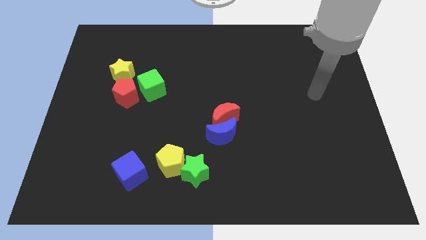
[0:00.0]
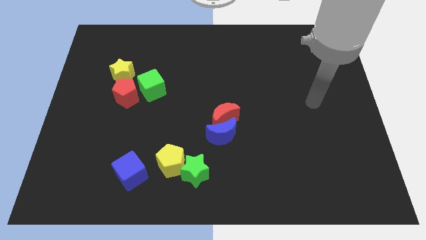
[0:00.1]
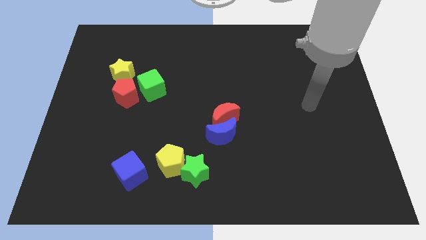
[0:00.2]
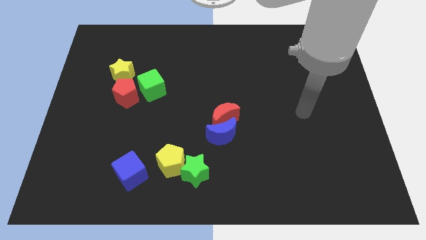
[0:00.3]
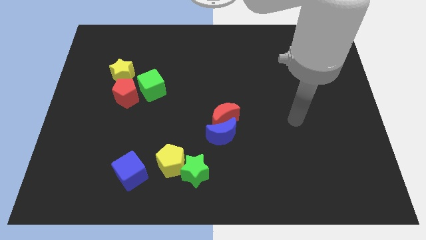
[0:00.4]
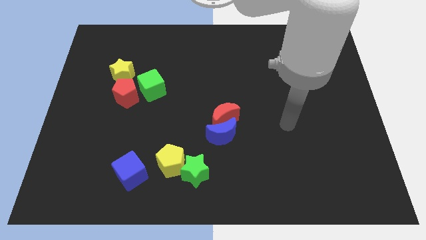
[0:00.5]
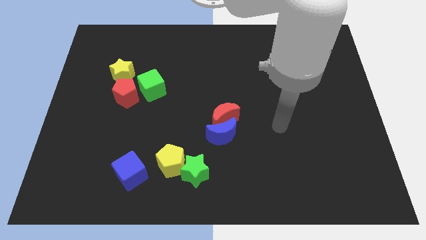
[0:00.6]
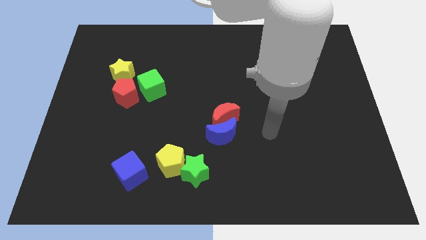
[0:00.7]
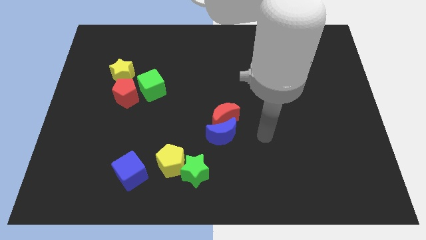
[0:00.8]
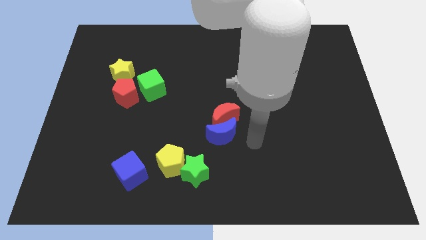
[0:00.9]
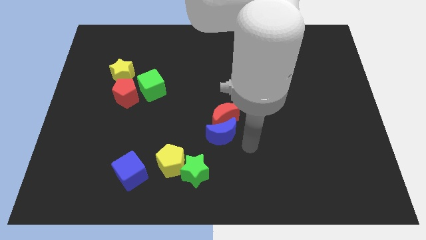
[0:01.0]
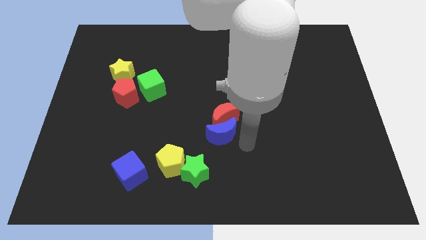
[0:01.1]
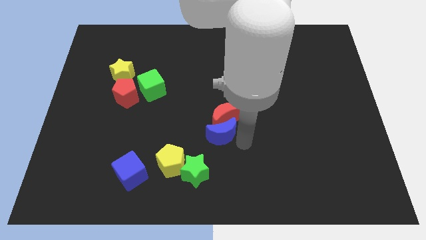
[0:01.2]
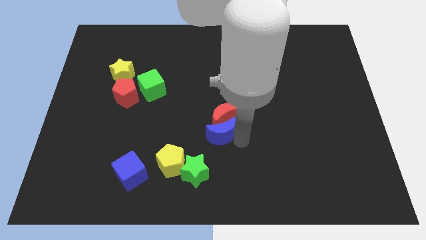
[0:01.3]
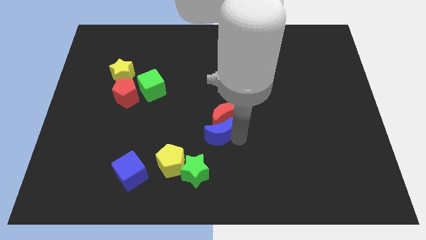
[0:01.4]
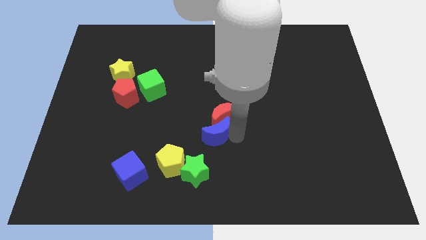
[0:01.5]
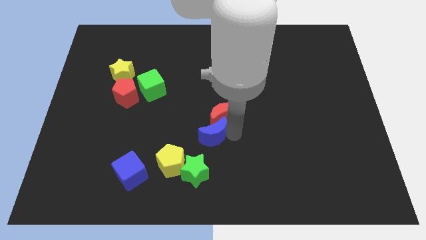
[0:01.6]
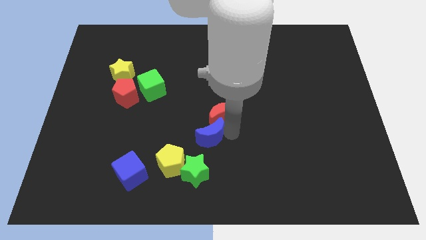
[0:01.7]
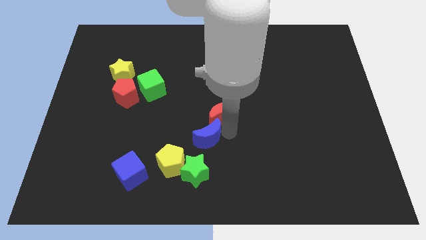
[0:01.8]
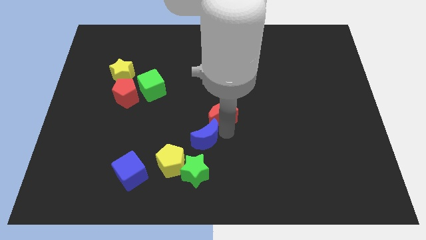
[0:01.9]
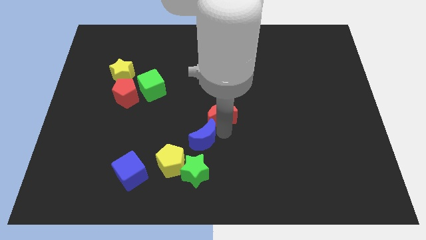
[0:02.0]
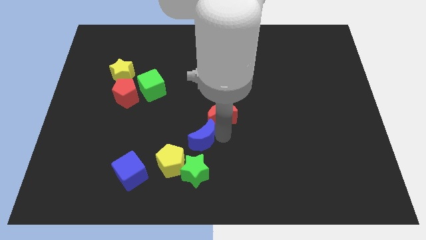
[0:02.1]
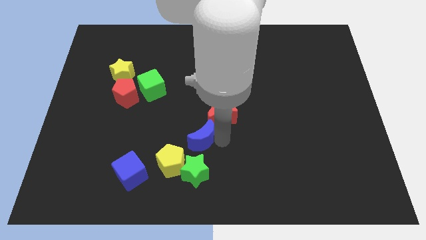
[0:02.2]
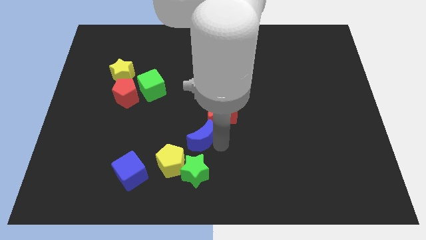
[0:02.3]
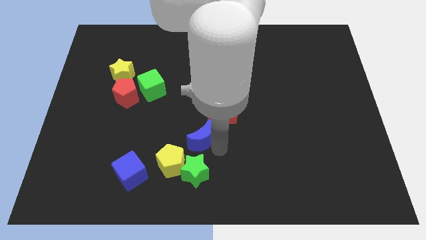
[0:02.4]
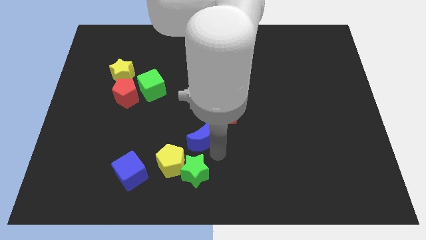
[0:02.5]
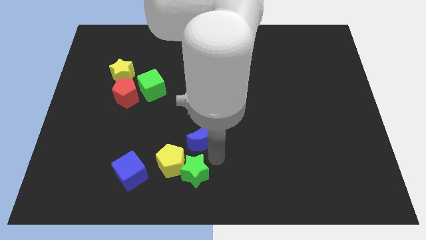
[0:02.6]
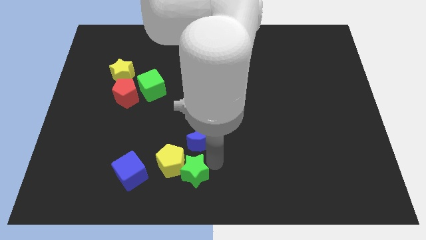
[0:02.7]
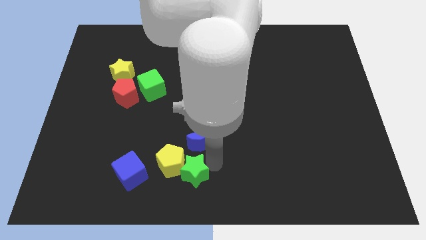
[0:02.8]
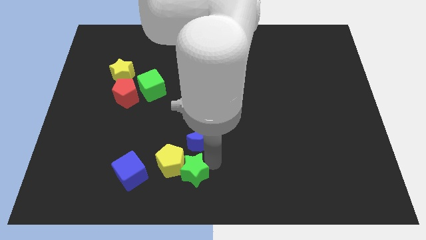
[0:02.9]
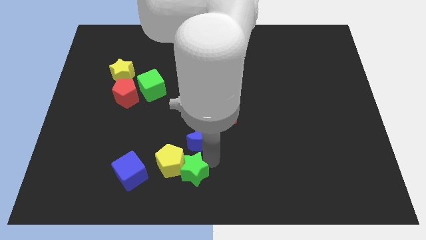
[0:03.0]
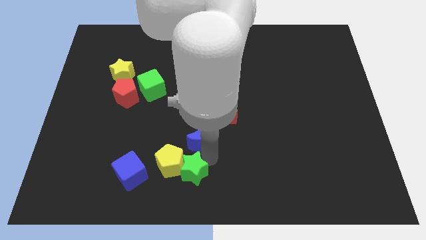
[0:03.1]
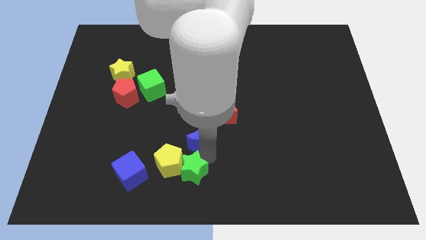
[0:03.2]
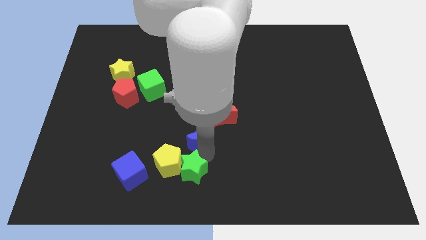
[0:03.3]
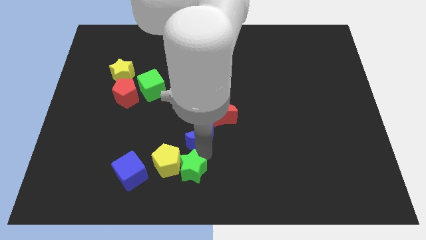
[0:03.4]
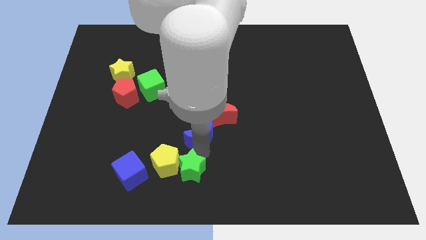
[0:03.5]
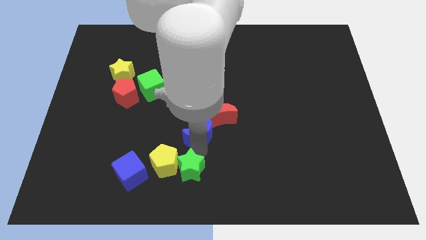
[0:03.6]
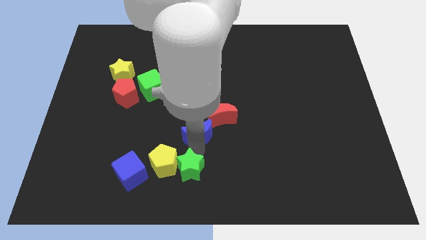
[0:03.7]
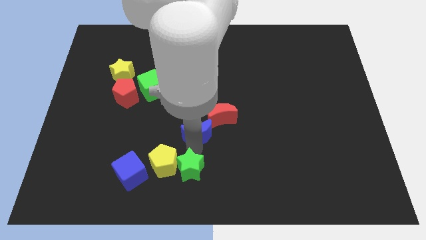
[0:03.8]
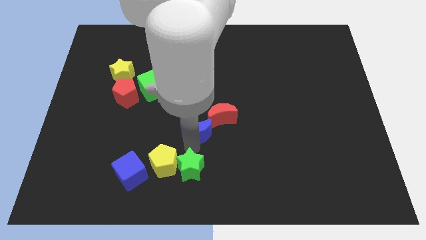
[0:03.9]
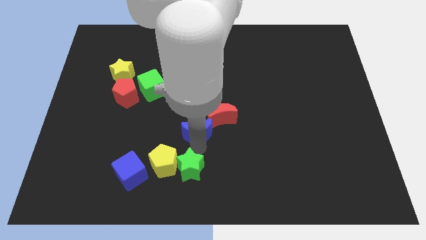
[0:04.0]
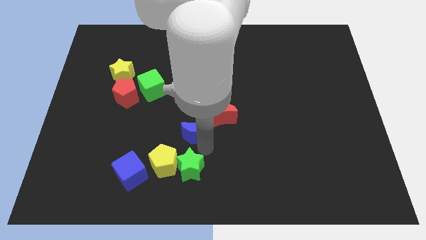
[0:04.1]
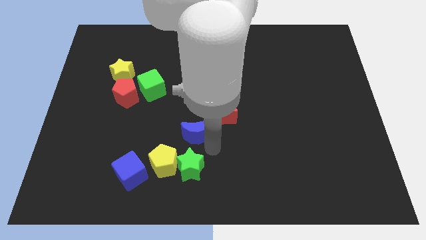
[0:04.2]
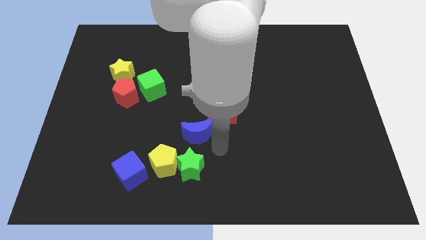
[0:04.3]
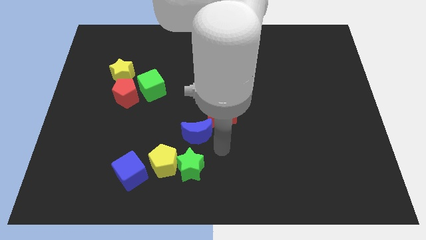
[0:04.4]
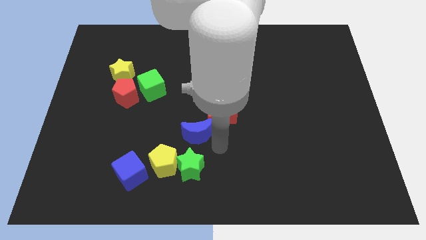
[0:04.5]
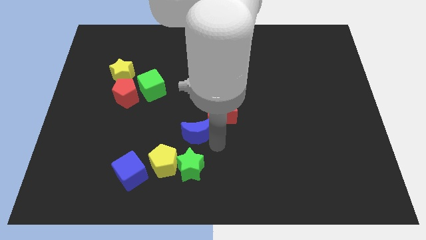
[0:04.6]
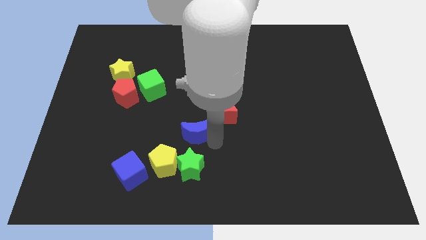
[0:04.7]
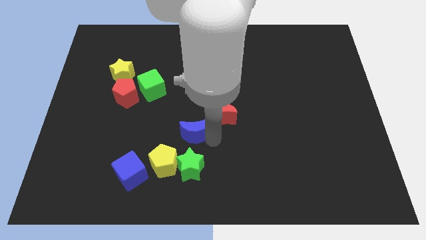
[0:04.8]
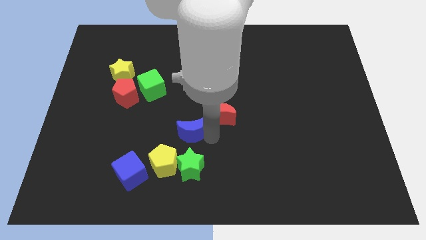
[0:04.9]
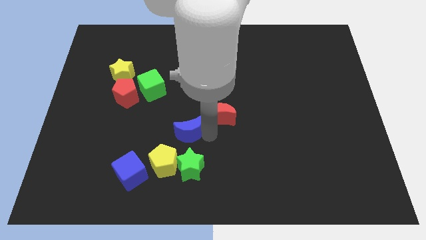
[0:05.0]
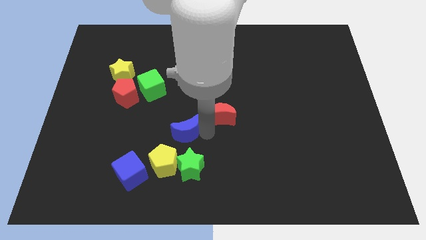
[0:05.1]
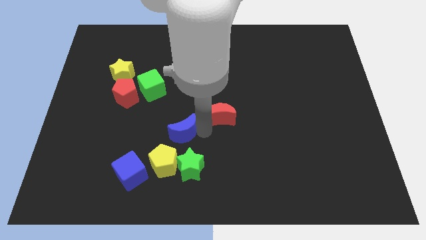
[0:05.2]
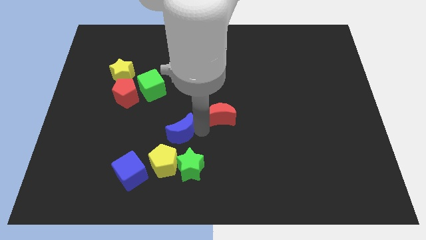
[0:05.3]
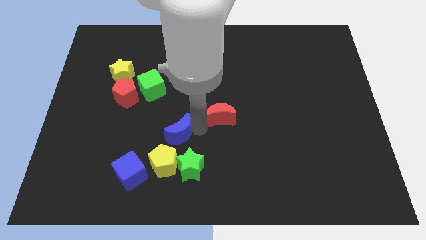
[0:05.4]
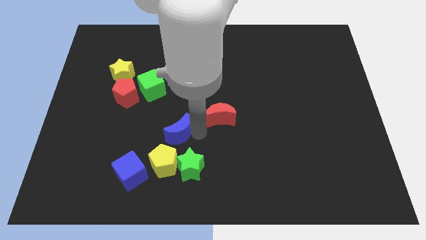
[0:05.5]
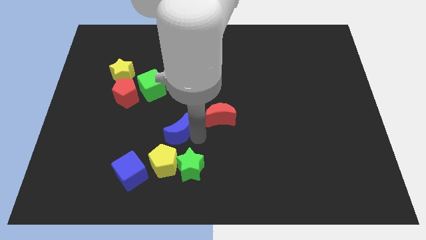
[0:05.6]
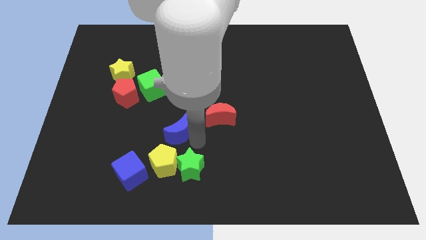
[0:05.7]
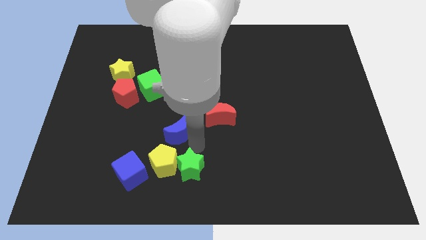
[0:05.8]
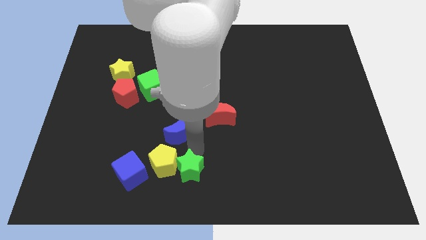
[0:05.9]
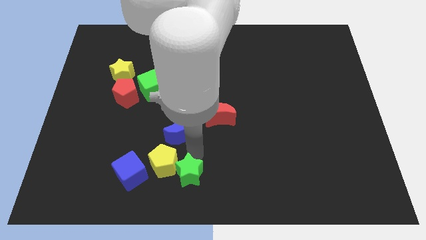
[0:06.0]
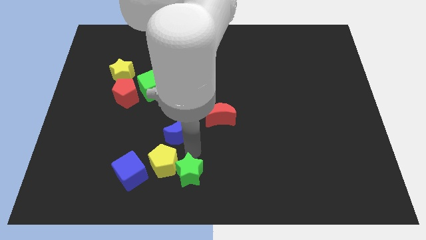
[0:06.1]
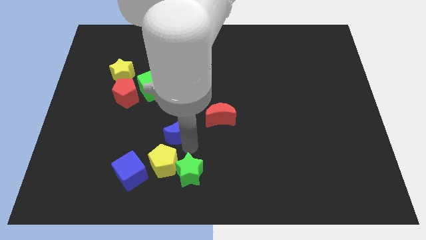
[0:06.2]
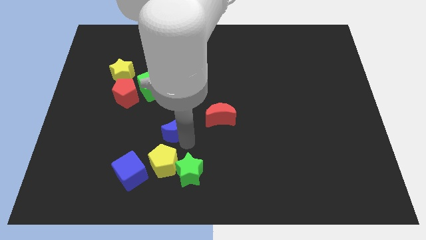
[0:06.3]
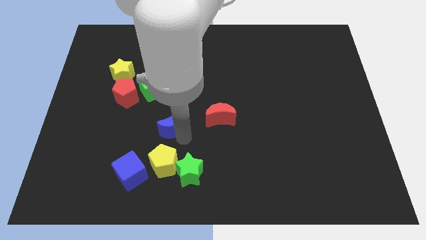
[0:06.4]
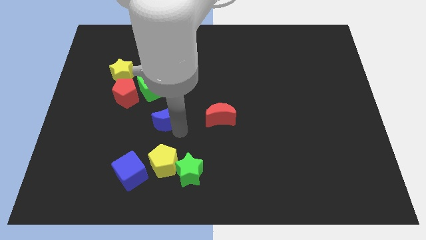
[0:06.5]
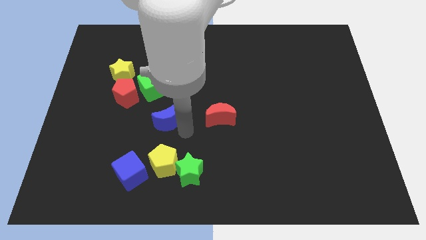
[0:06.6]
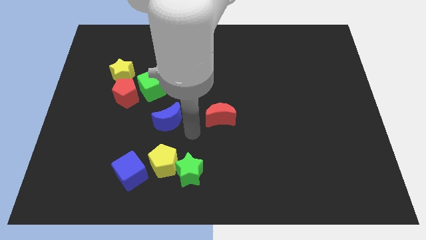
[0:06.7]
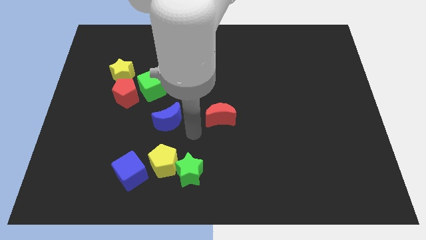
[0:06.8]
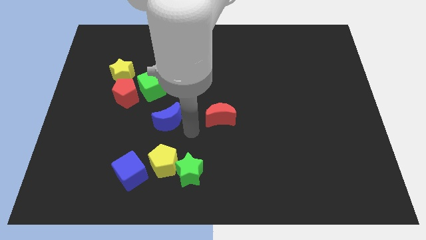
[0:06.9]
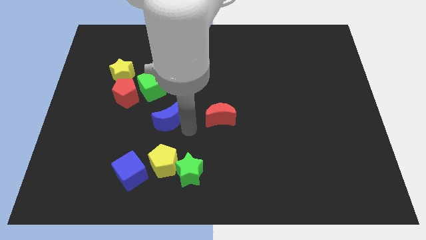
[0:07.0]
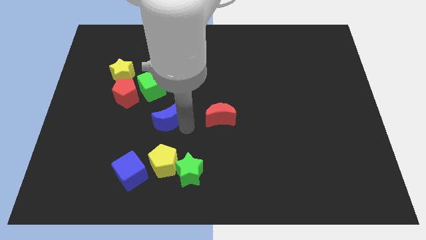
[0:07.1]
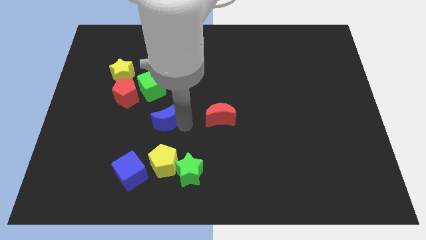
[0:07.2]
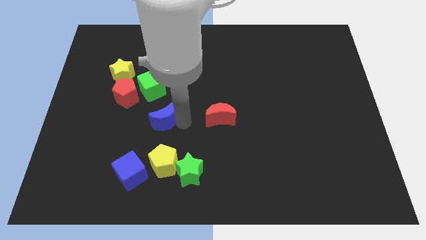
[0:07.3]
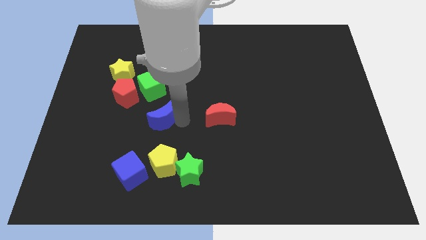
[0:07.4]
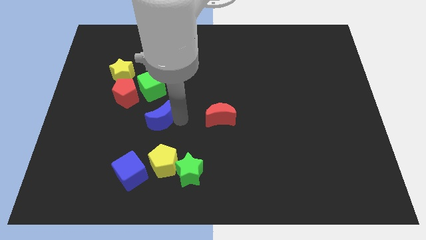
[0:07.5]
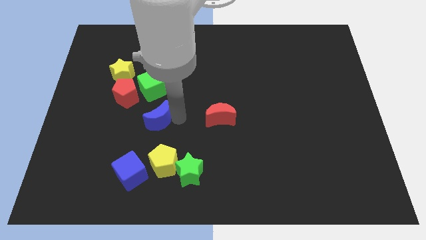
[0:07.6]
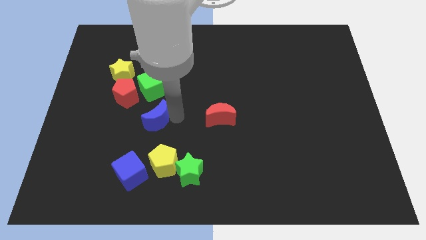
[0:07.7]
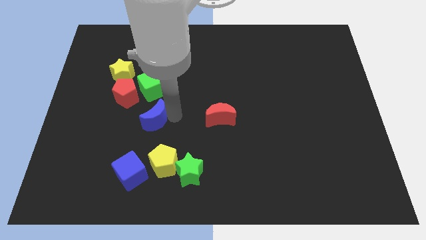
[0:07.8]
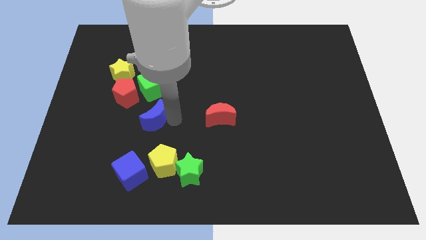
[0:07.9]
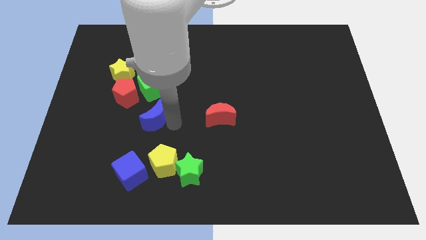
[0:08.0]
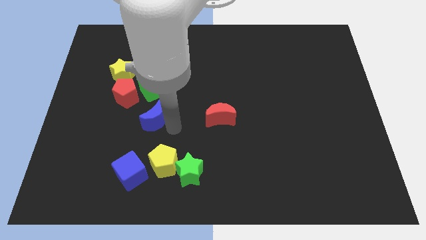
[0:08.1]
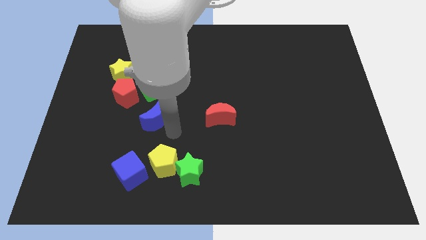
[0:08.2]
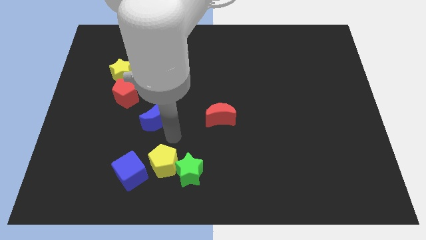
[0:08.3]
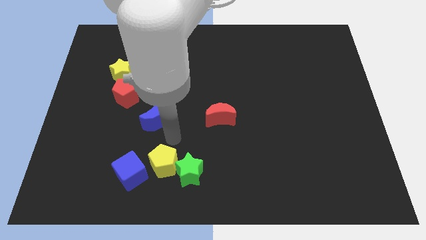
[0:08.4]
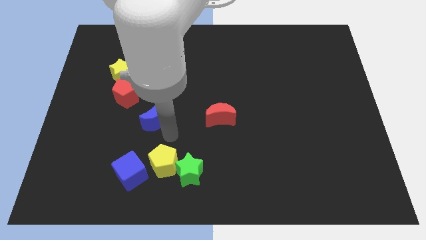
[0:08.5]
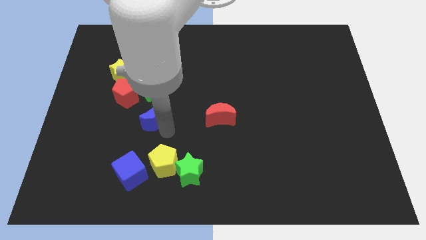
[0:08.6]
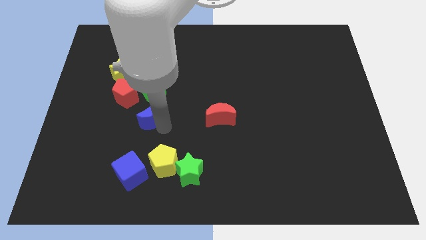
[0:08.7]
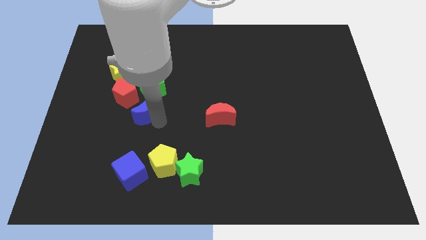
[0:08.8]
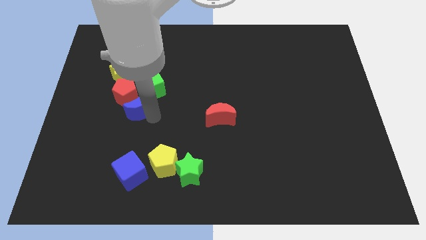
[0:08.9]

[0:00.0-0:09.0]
slide the blue moon towards the red pentagon
